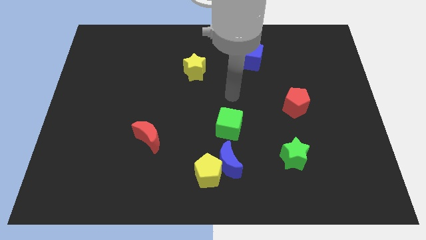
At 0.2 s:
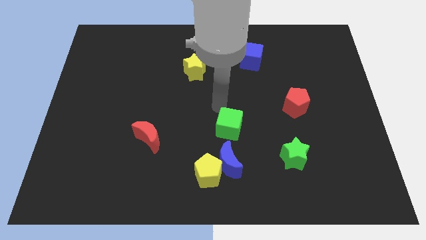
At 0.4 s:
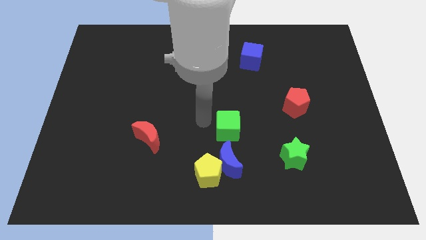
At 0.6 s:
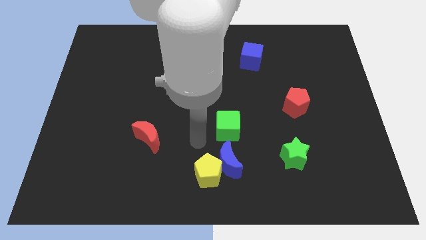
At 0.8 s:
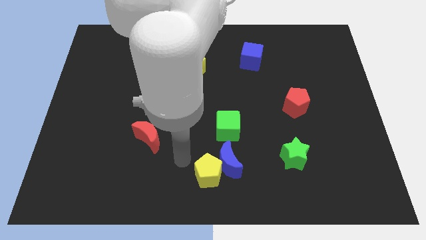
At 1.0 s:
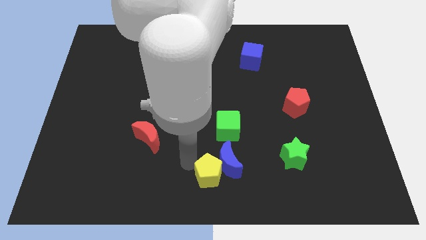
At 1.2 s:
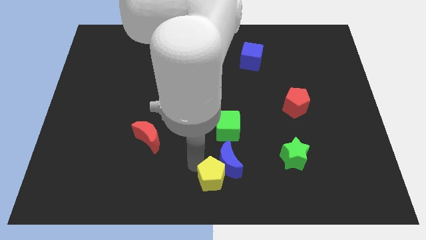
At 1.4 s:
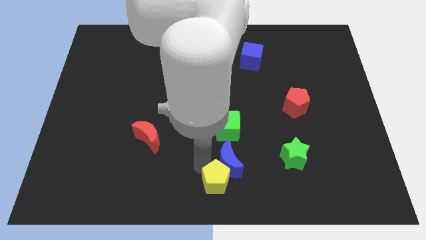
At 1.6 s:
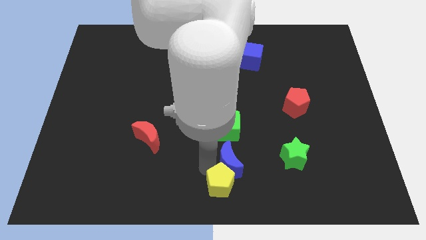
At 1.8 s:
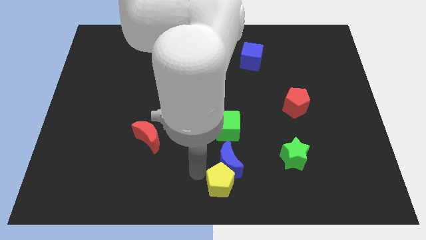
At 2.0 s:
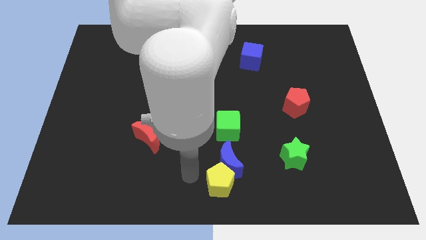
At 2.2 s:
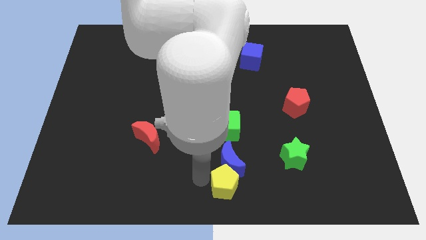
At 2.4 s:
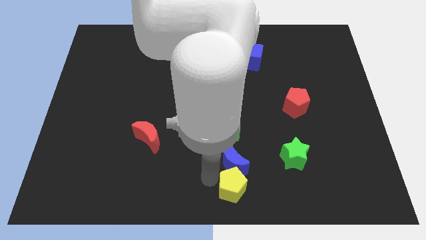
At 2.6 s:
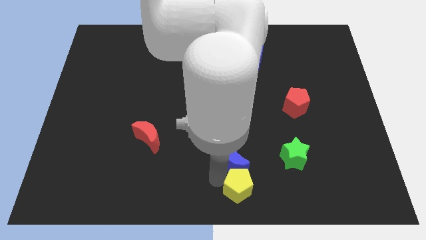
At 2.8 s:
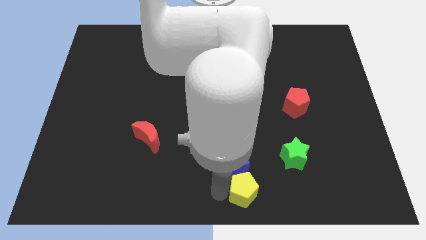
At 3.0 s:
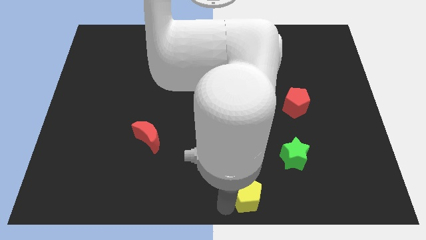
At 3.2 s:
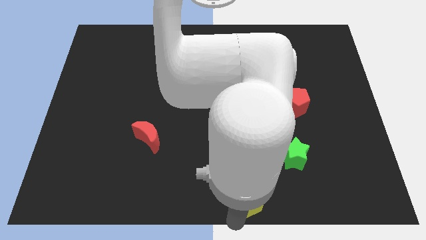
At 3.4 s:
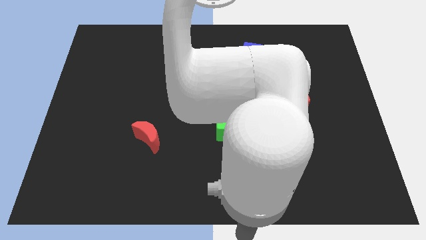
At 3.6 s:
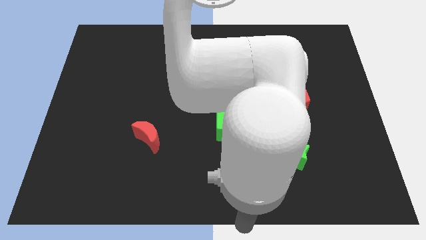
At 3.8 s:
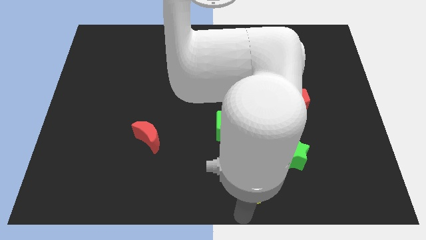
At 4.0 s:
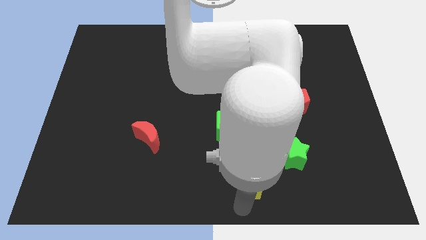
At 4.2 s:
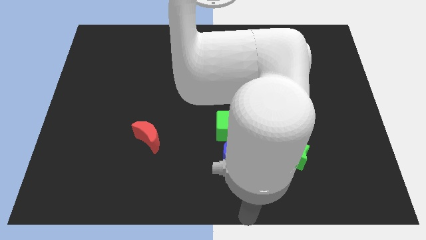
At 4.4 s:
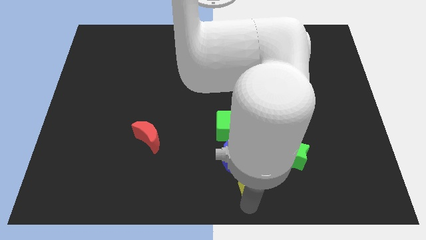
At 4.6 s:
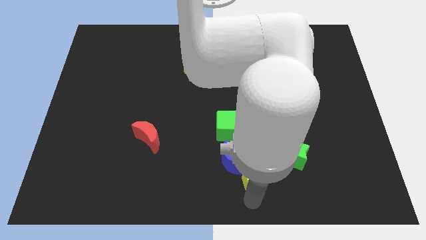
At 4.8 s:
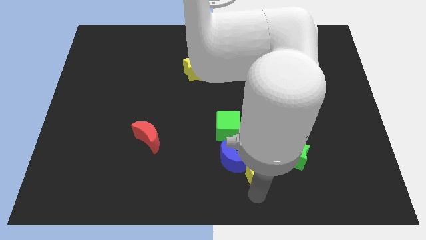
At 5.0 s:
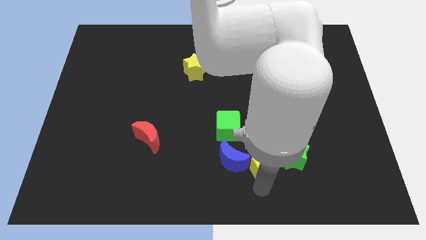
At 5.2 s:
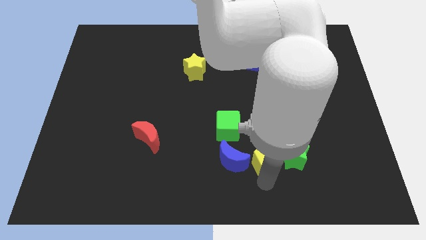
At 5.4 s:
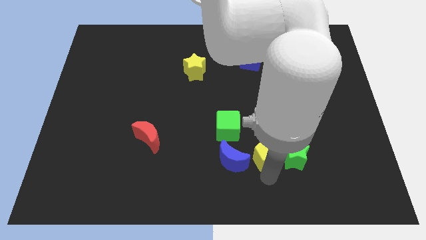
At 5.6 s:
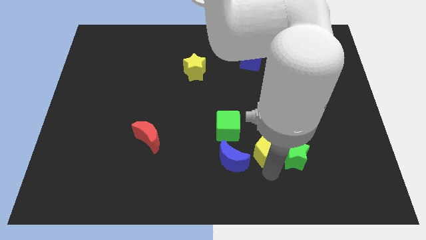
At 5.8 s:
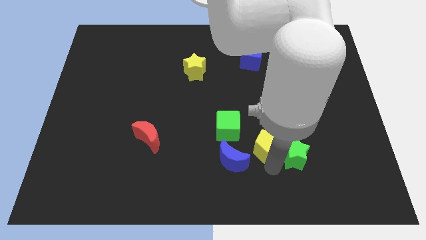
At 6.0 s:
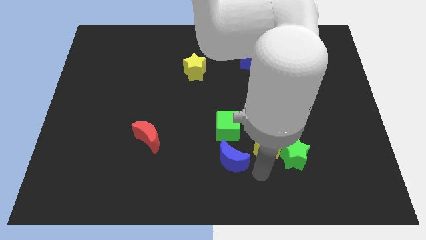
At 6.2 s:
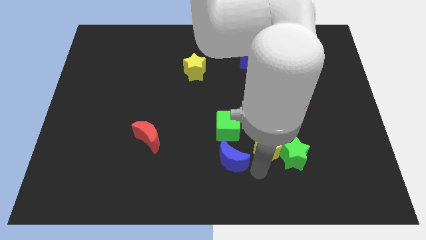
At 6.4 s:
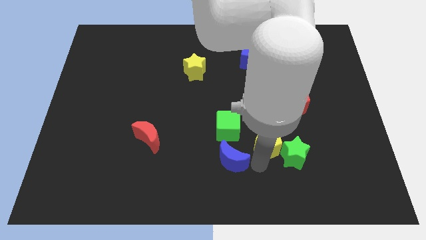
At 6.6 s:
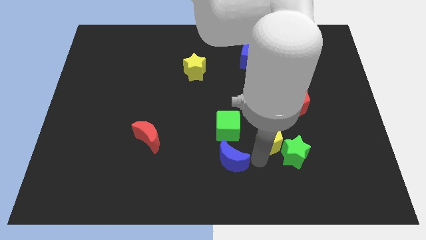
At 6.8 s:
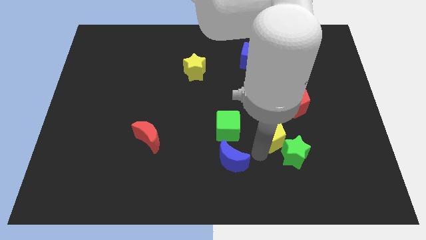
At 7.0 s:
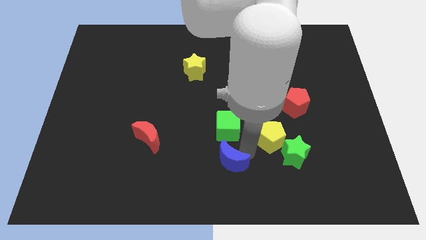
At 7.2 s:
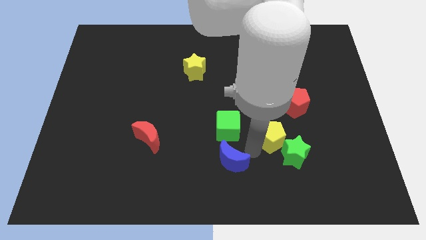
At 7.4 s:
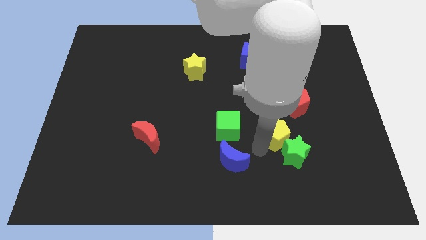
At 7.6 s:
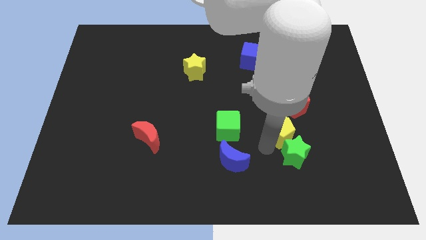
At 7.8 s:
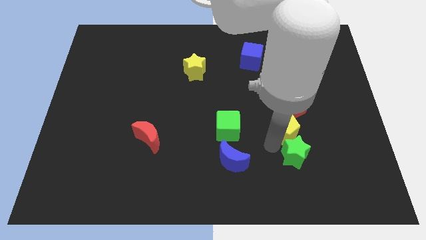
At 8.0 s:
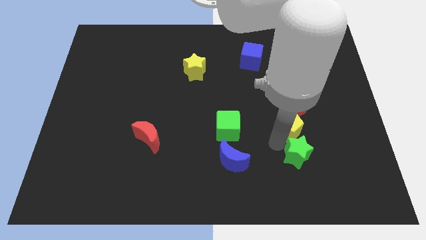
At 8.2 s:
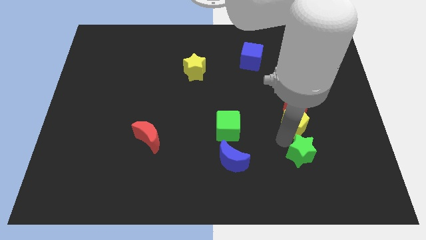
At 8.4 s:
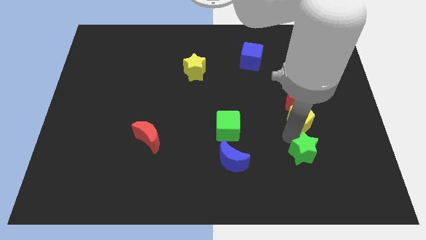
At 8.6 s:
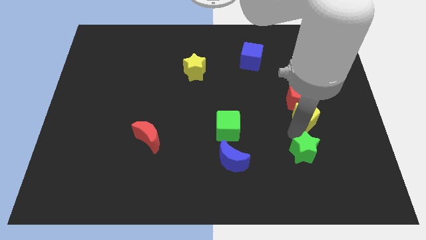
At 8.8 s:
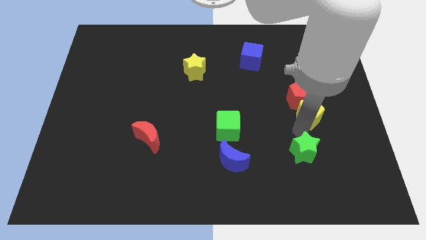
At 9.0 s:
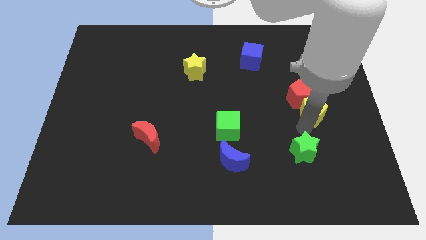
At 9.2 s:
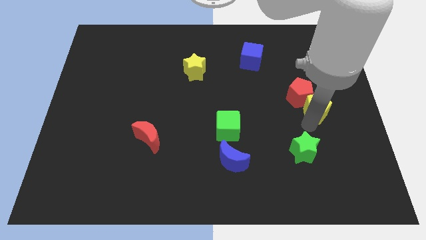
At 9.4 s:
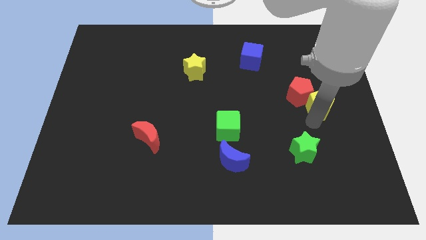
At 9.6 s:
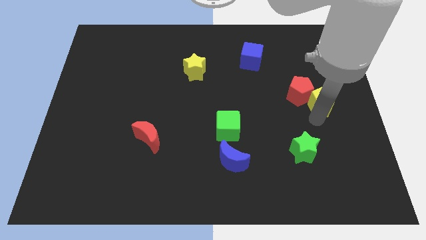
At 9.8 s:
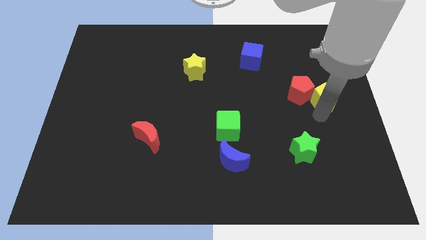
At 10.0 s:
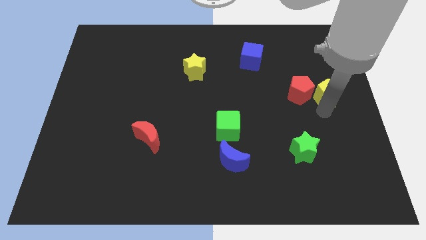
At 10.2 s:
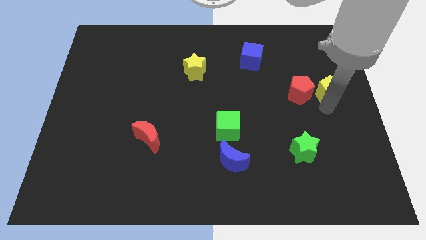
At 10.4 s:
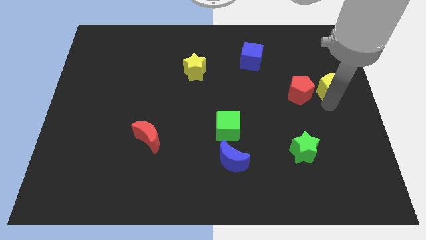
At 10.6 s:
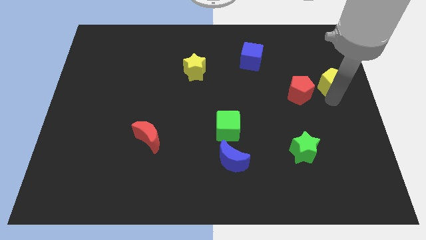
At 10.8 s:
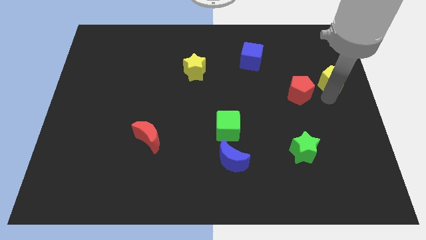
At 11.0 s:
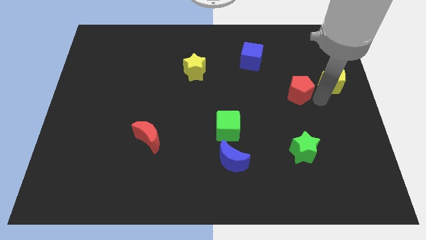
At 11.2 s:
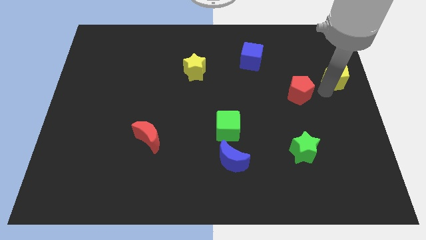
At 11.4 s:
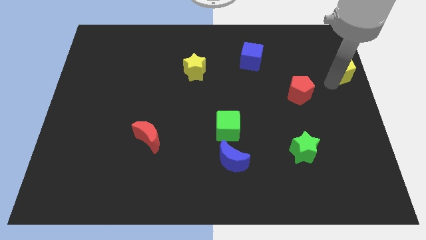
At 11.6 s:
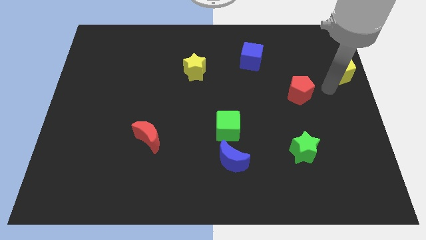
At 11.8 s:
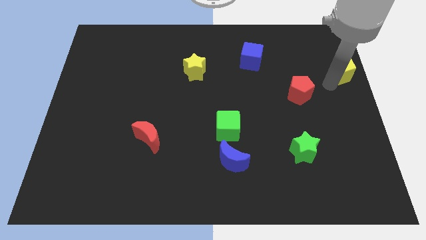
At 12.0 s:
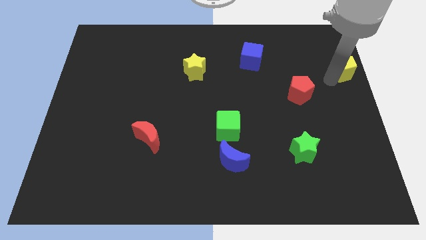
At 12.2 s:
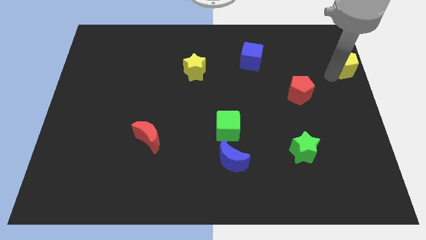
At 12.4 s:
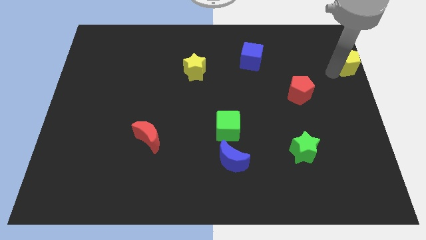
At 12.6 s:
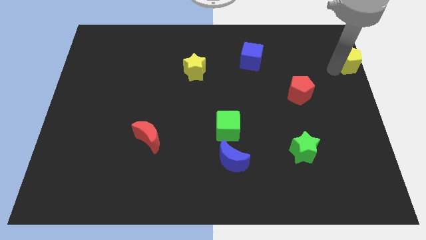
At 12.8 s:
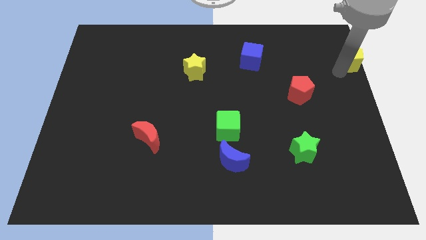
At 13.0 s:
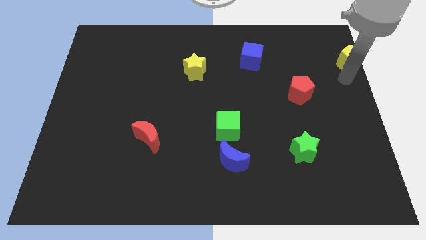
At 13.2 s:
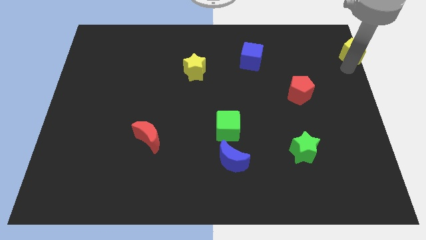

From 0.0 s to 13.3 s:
push the yellow pentagon to the top right

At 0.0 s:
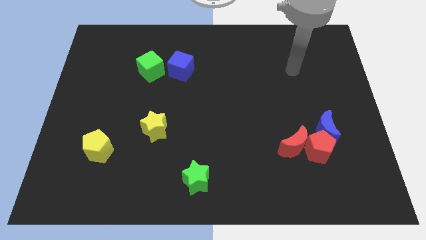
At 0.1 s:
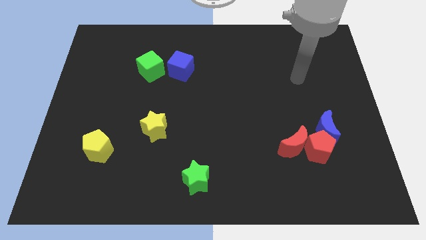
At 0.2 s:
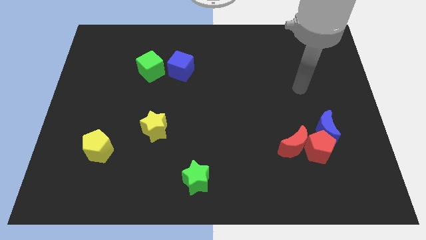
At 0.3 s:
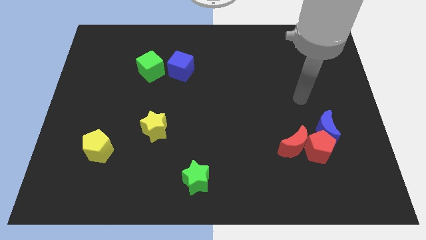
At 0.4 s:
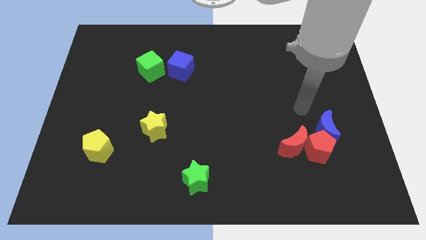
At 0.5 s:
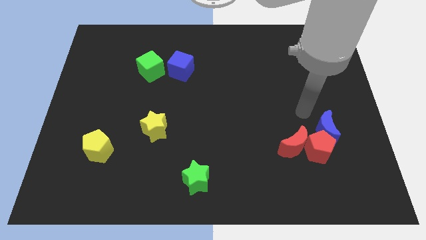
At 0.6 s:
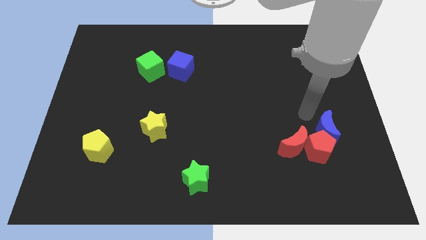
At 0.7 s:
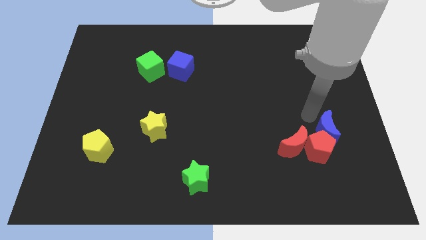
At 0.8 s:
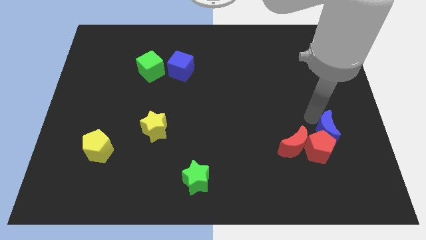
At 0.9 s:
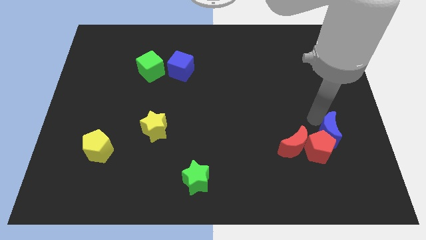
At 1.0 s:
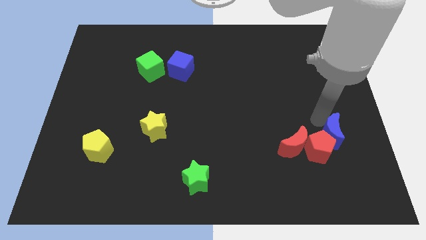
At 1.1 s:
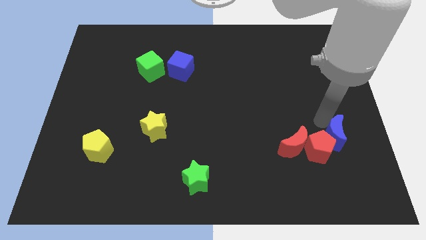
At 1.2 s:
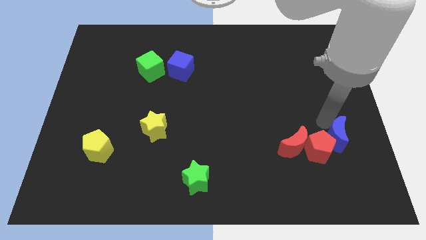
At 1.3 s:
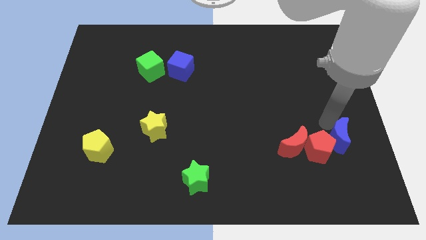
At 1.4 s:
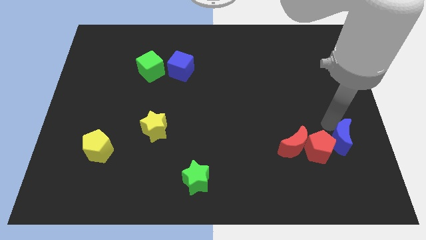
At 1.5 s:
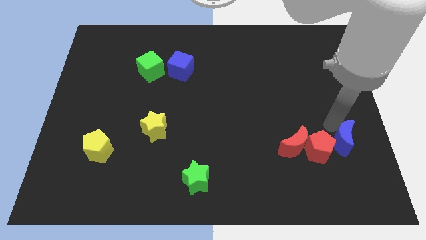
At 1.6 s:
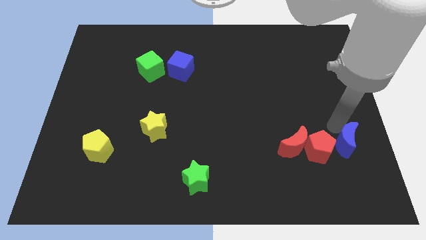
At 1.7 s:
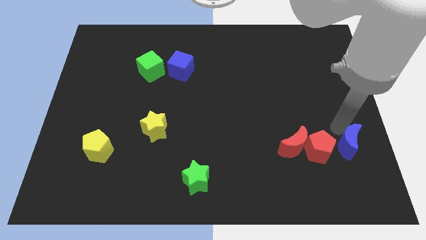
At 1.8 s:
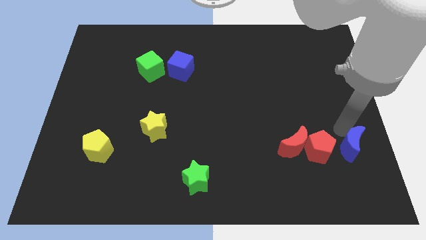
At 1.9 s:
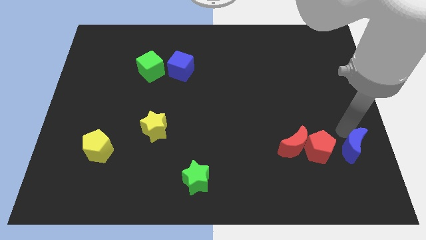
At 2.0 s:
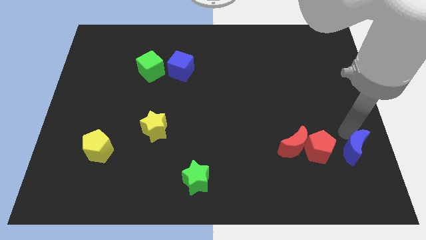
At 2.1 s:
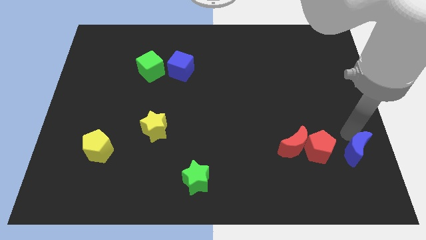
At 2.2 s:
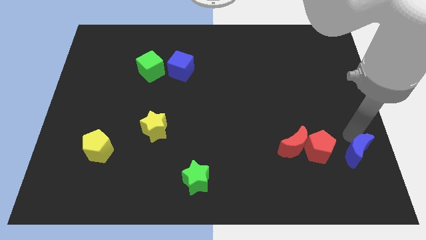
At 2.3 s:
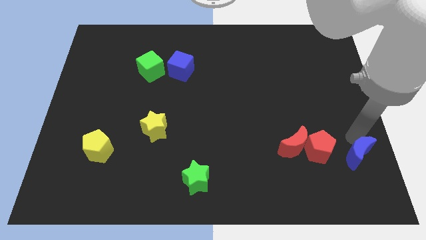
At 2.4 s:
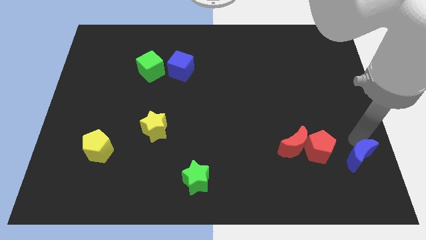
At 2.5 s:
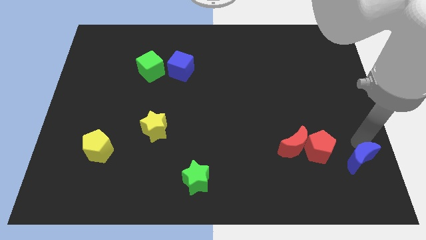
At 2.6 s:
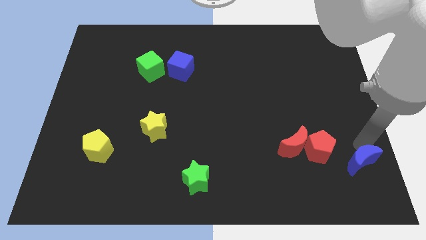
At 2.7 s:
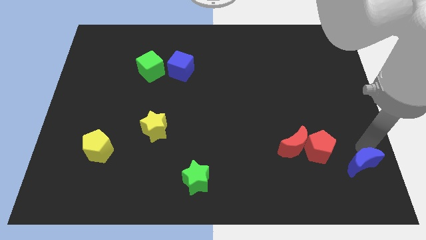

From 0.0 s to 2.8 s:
slide the blue moon to the lower right corner
